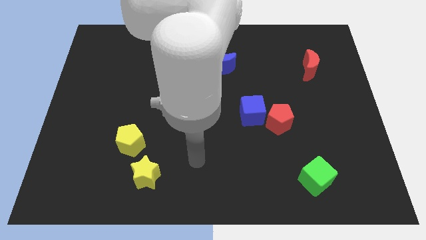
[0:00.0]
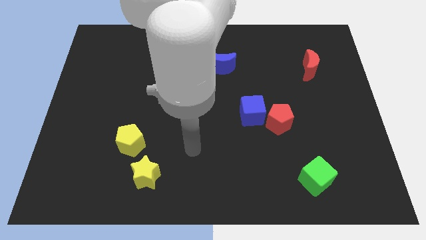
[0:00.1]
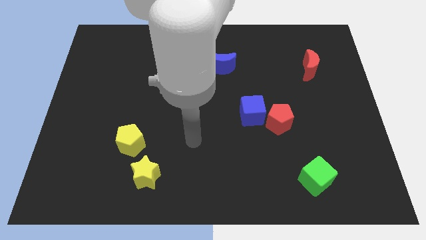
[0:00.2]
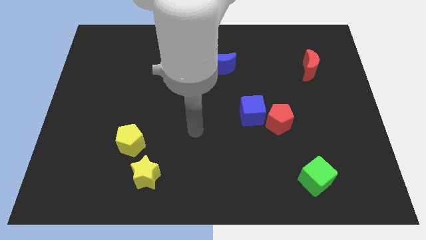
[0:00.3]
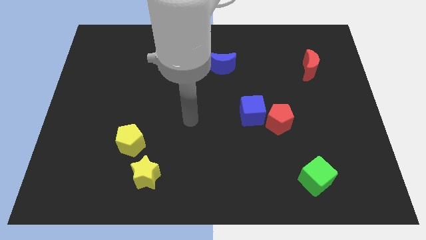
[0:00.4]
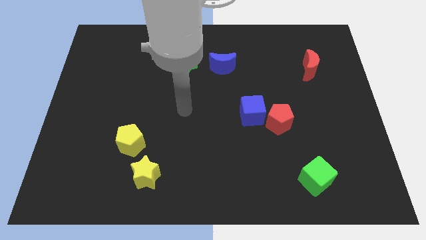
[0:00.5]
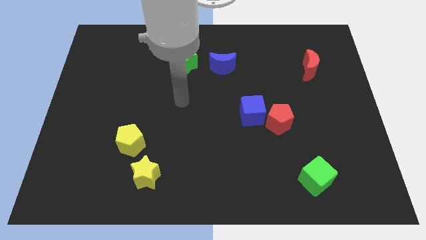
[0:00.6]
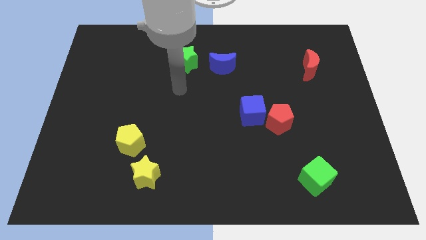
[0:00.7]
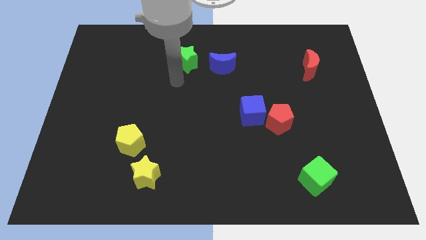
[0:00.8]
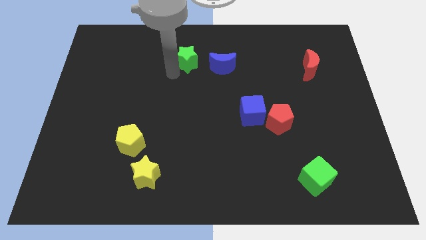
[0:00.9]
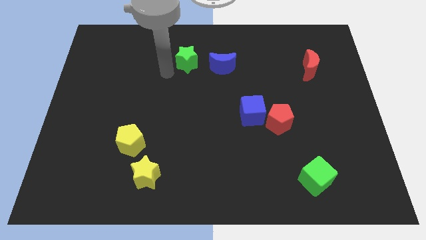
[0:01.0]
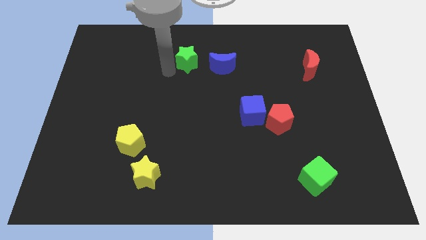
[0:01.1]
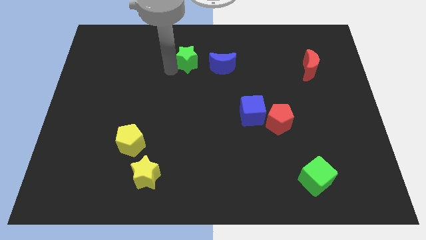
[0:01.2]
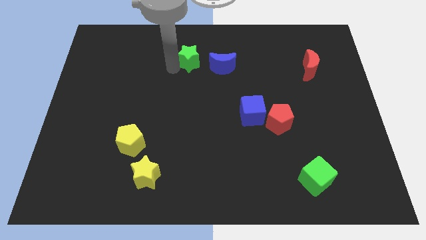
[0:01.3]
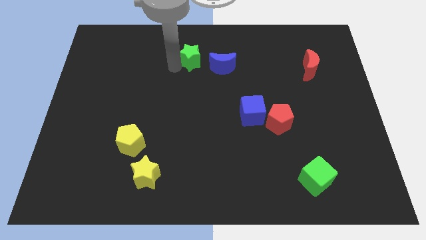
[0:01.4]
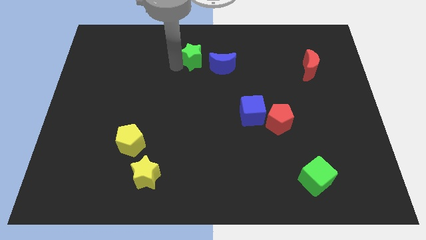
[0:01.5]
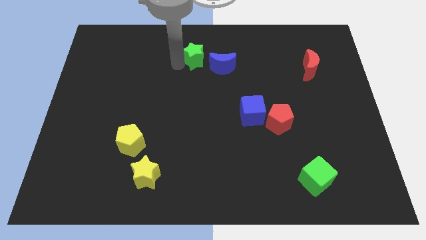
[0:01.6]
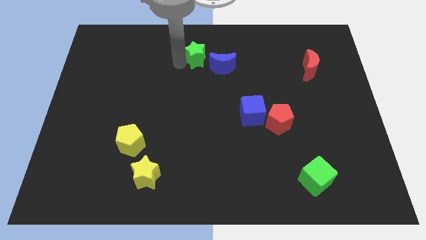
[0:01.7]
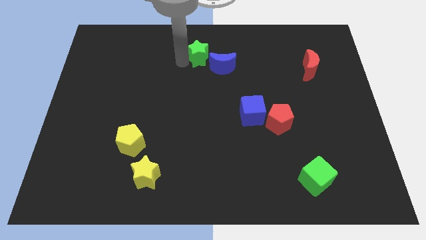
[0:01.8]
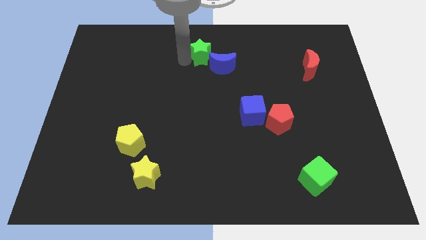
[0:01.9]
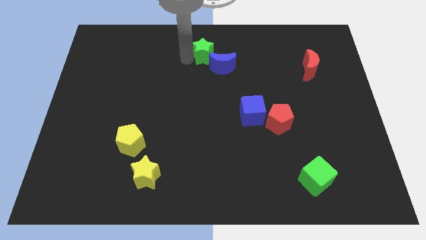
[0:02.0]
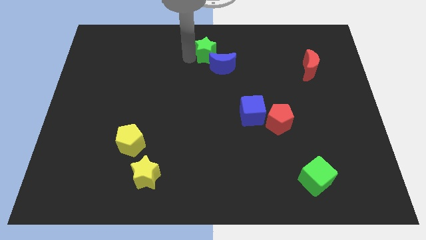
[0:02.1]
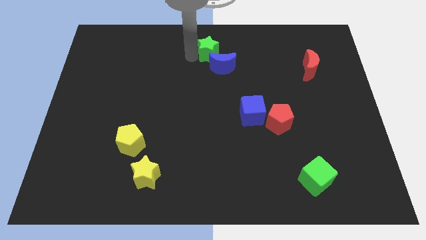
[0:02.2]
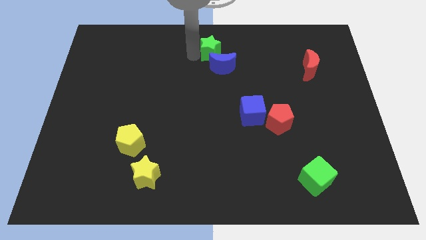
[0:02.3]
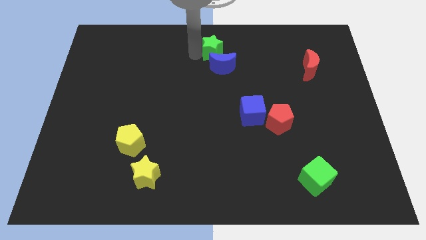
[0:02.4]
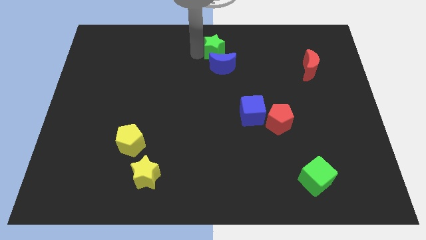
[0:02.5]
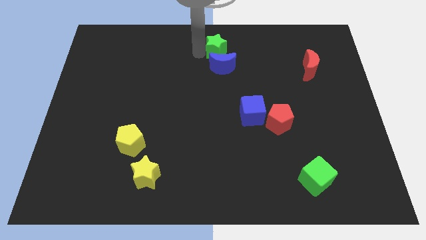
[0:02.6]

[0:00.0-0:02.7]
move the green star to the right a bit

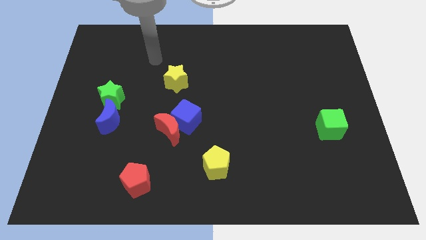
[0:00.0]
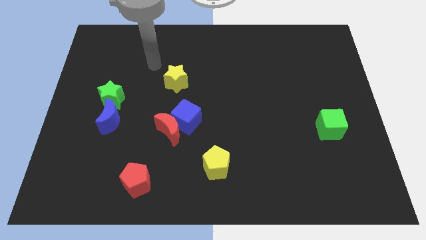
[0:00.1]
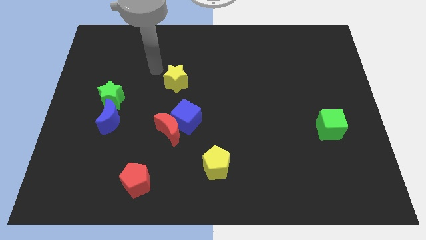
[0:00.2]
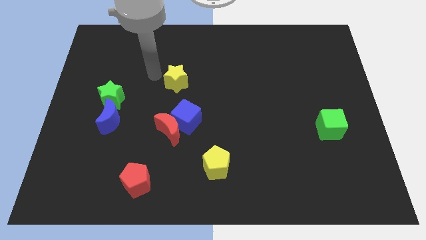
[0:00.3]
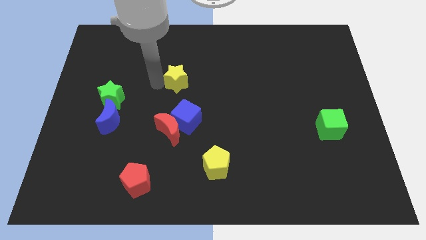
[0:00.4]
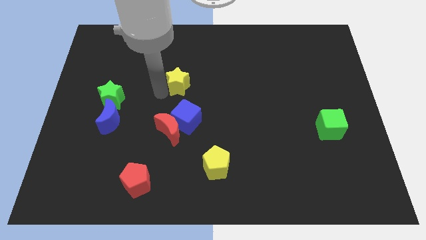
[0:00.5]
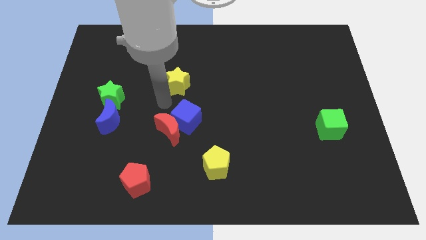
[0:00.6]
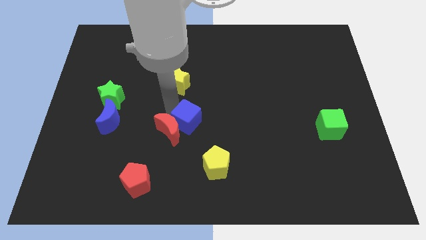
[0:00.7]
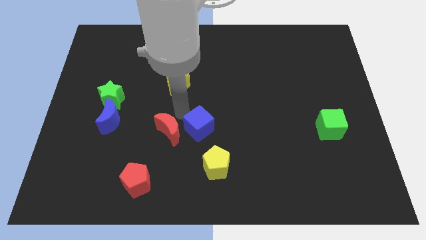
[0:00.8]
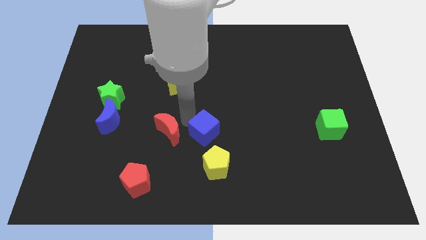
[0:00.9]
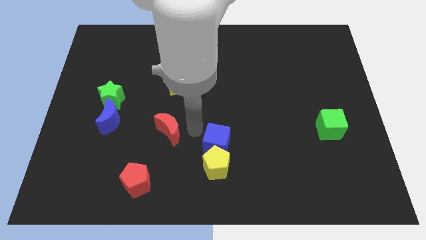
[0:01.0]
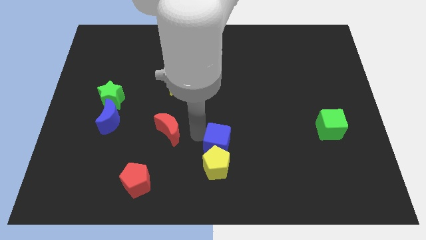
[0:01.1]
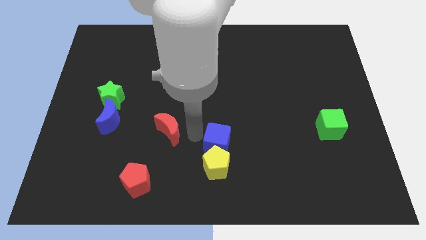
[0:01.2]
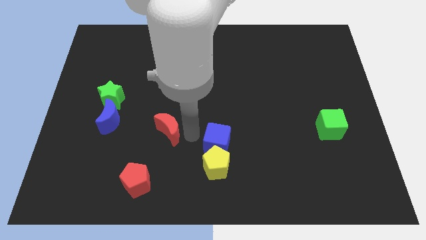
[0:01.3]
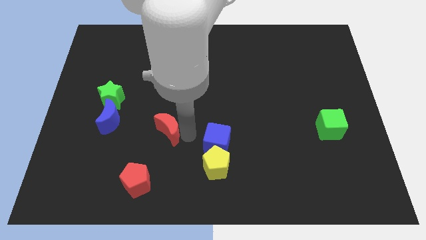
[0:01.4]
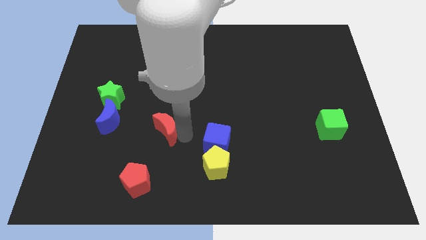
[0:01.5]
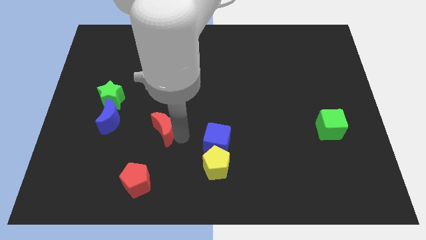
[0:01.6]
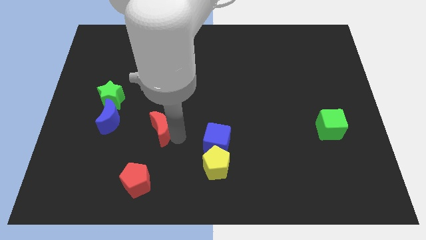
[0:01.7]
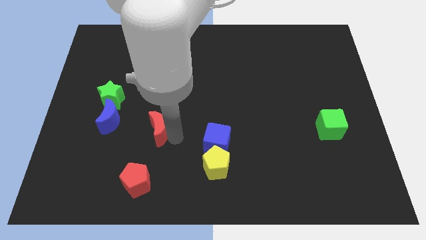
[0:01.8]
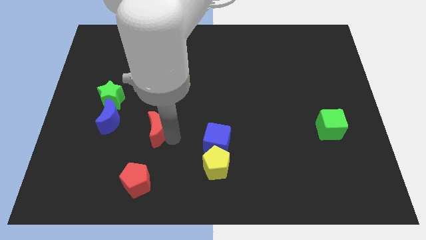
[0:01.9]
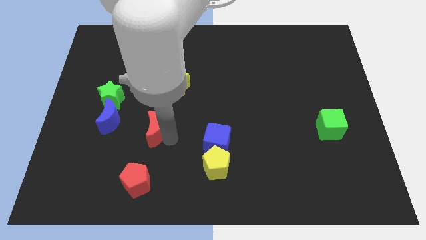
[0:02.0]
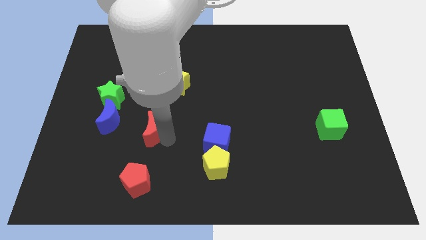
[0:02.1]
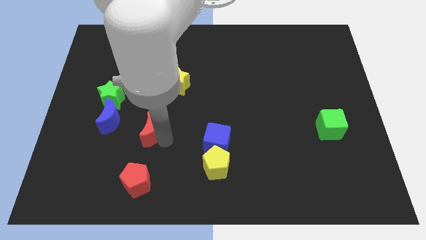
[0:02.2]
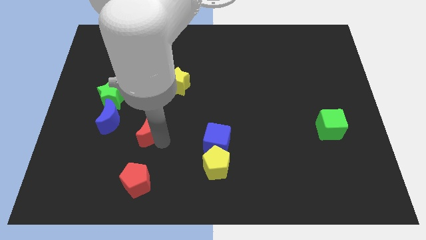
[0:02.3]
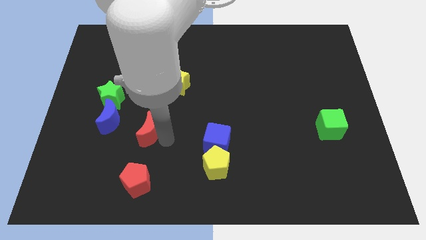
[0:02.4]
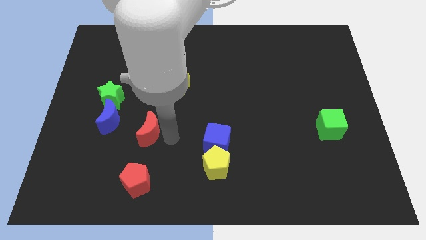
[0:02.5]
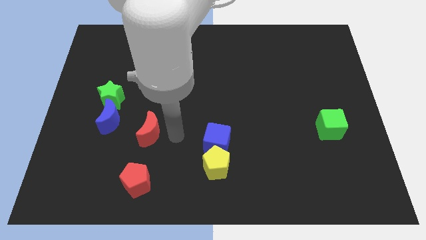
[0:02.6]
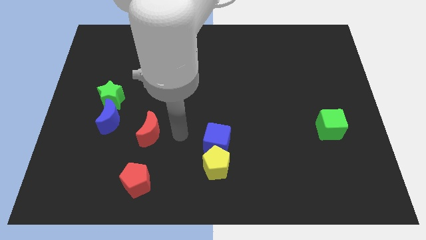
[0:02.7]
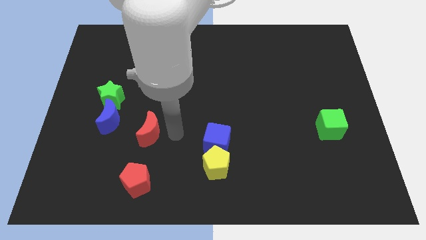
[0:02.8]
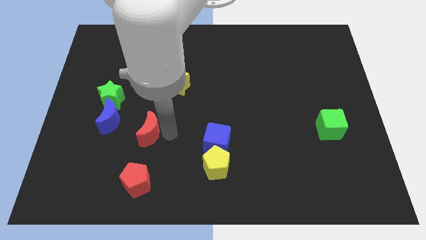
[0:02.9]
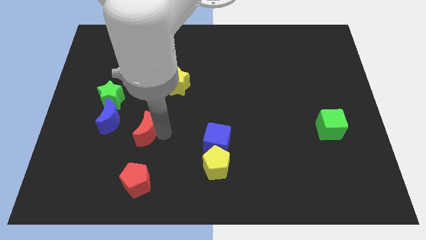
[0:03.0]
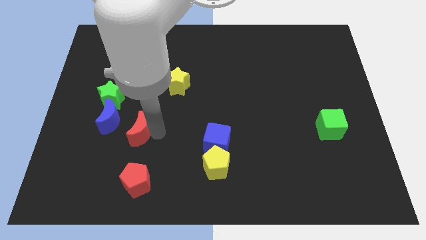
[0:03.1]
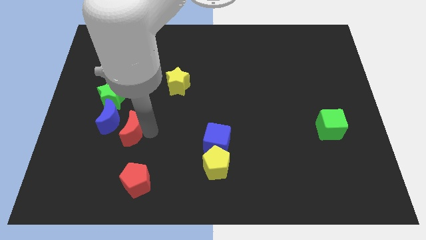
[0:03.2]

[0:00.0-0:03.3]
slide the red moon to the left somewhat

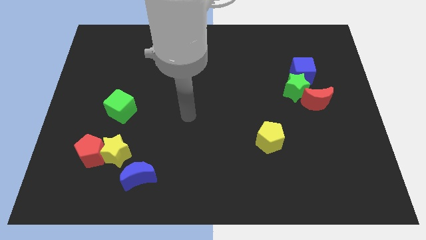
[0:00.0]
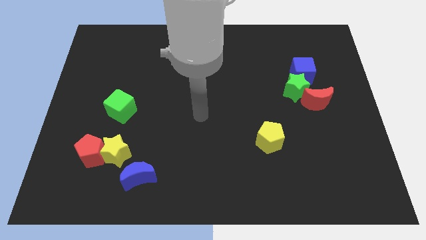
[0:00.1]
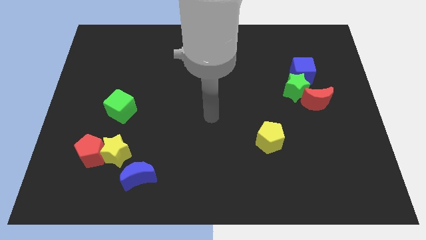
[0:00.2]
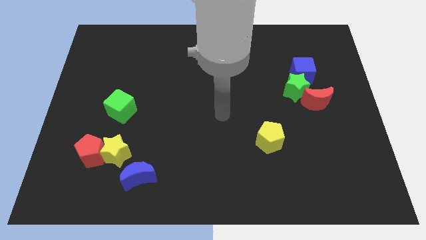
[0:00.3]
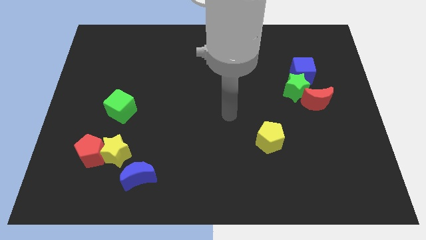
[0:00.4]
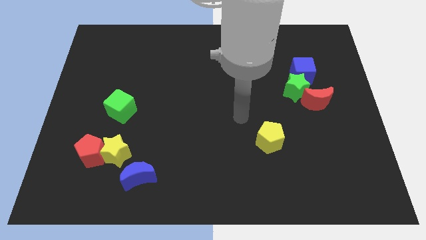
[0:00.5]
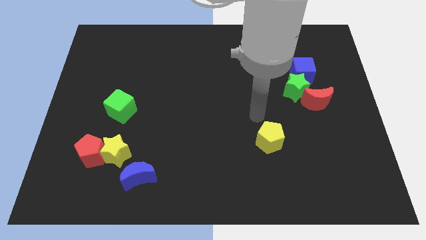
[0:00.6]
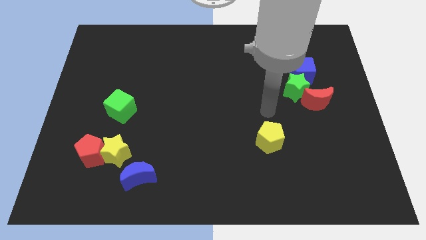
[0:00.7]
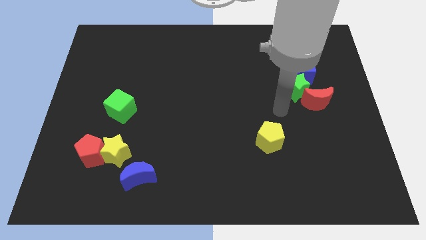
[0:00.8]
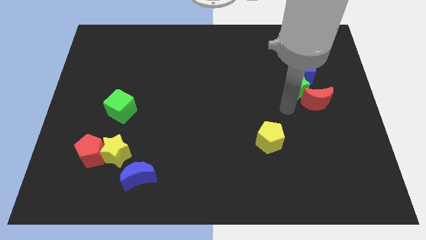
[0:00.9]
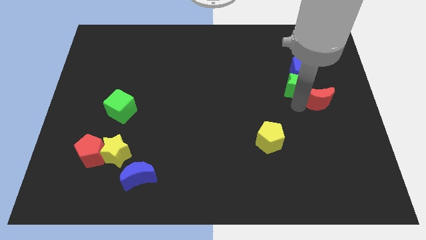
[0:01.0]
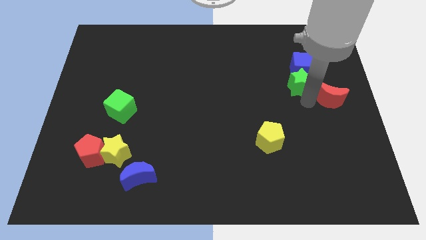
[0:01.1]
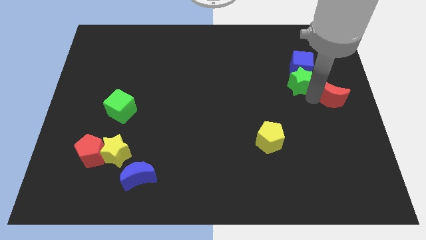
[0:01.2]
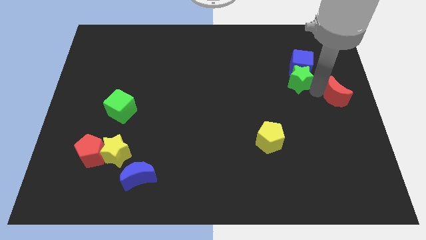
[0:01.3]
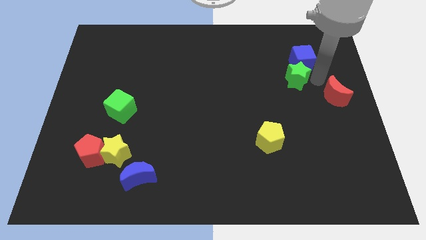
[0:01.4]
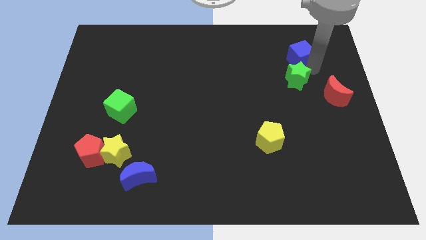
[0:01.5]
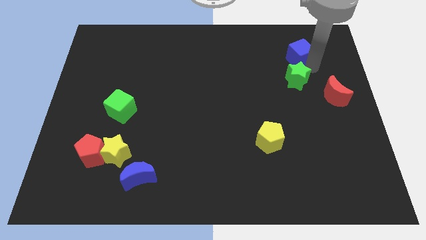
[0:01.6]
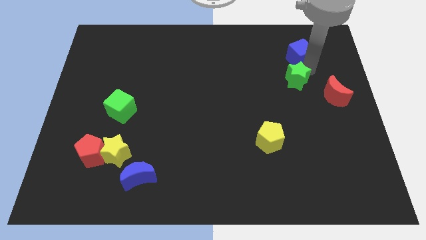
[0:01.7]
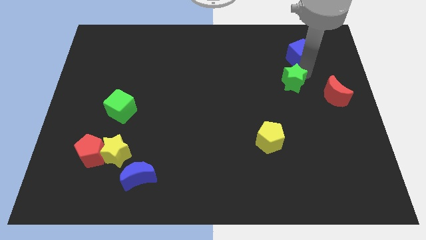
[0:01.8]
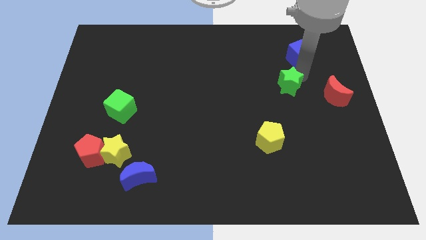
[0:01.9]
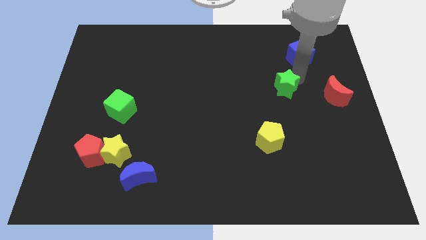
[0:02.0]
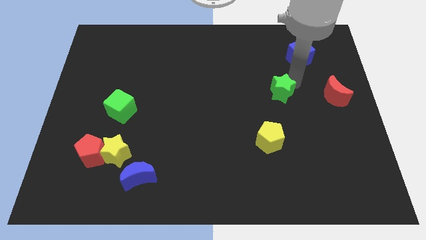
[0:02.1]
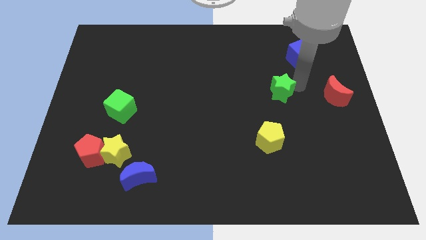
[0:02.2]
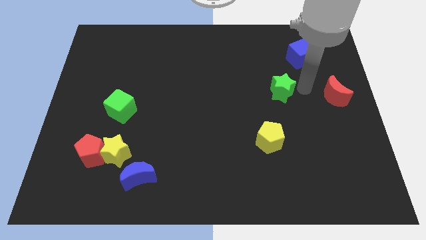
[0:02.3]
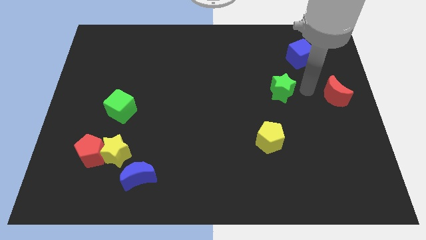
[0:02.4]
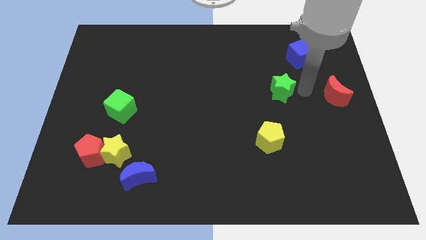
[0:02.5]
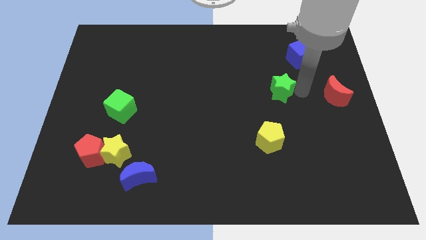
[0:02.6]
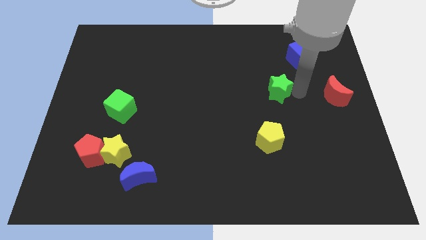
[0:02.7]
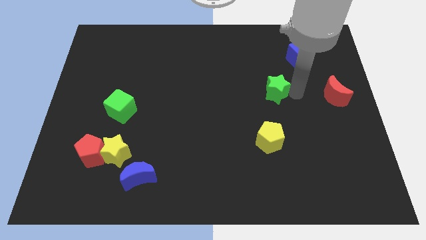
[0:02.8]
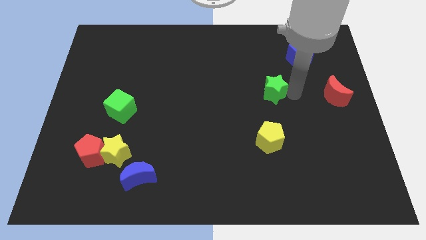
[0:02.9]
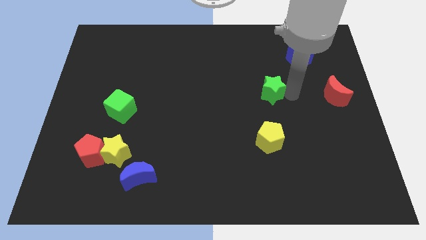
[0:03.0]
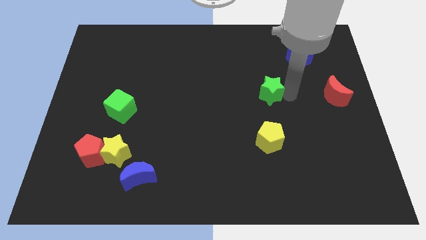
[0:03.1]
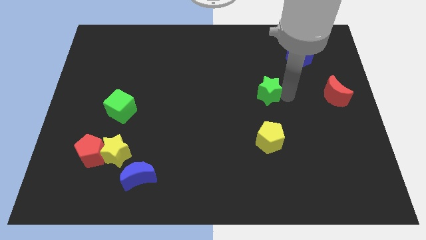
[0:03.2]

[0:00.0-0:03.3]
slightly move the green star to the left
